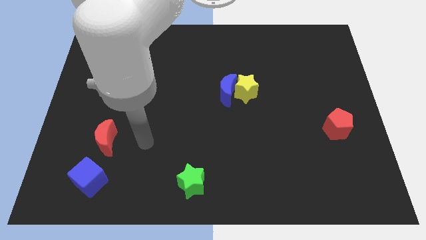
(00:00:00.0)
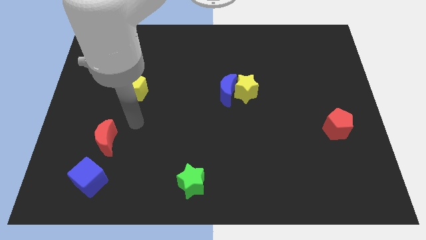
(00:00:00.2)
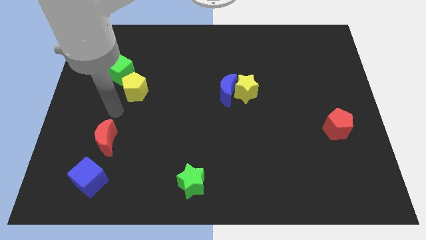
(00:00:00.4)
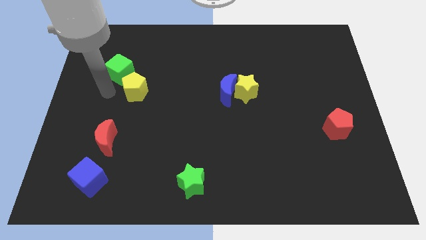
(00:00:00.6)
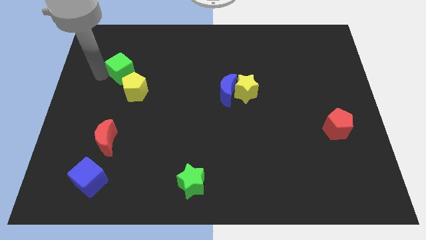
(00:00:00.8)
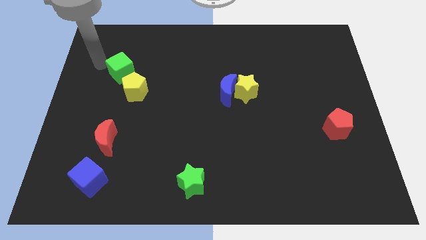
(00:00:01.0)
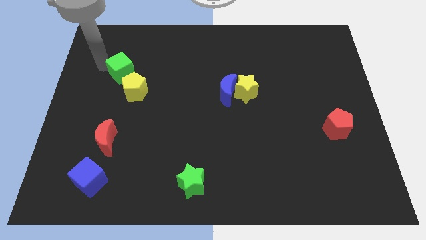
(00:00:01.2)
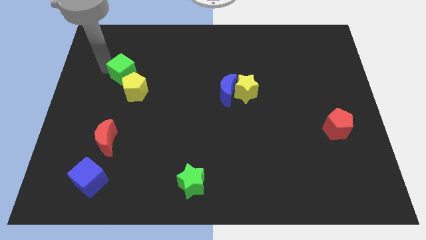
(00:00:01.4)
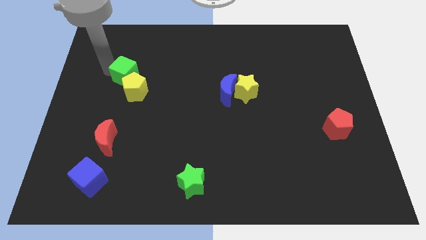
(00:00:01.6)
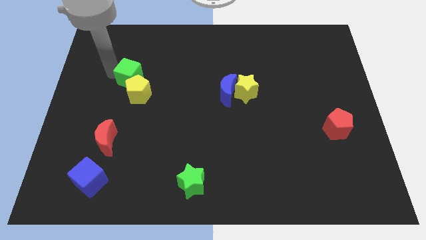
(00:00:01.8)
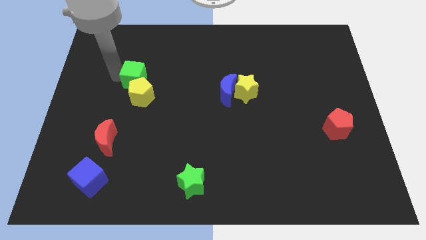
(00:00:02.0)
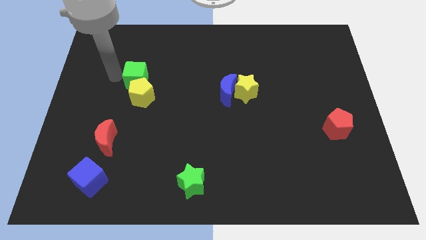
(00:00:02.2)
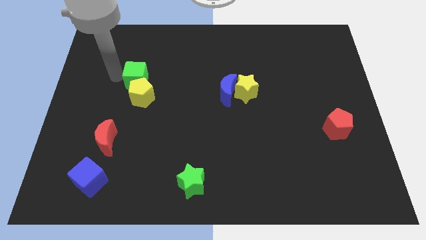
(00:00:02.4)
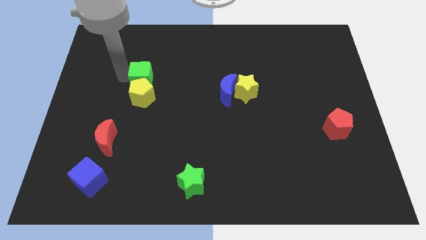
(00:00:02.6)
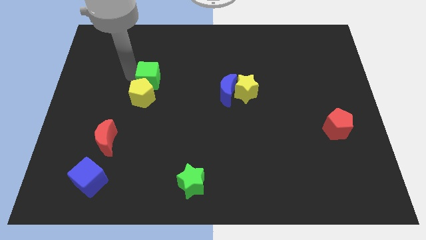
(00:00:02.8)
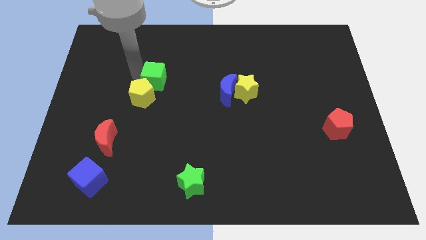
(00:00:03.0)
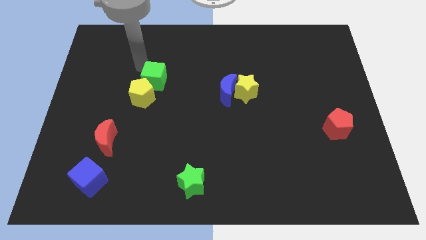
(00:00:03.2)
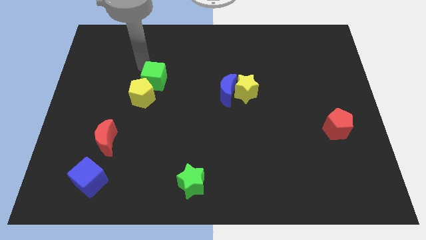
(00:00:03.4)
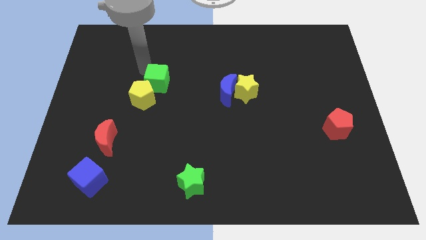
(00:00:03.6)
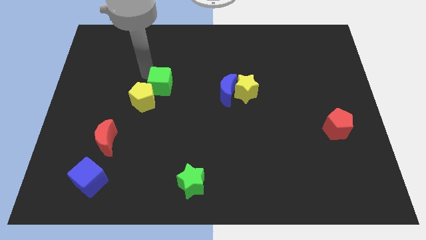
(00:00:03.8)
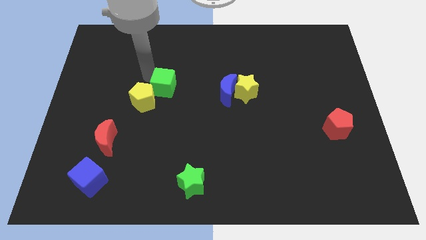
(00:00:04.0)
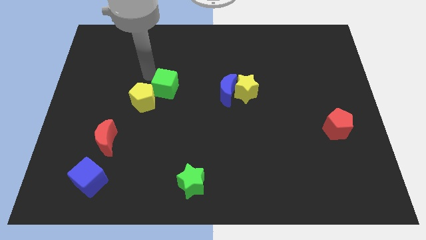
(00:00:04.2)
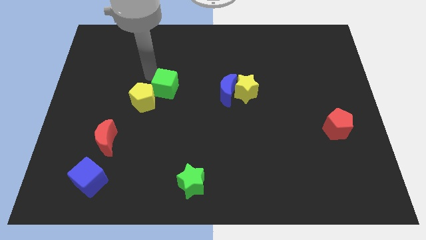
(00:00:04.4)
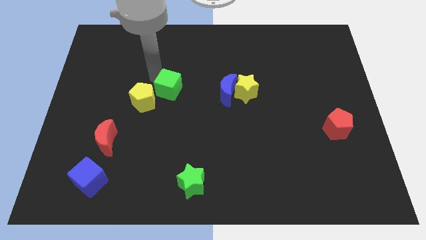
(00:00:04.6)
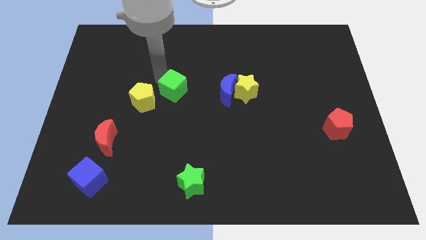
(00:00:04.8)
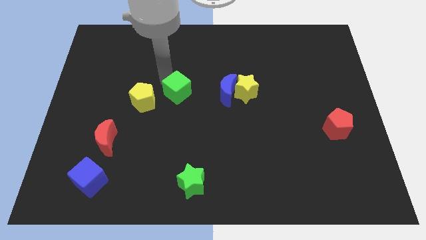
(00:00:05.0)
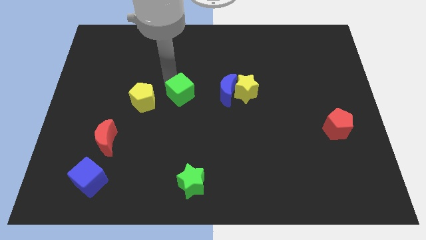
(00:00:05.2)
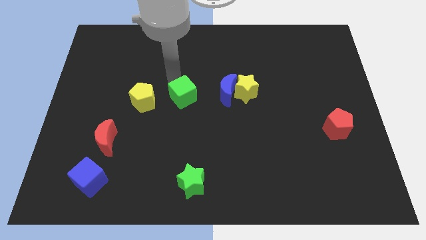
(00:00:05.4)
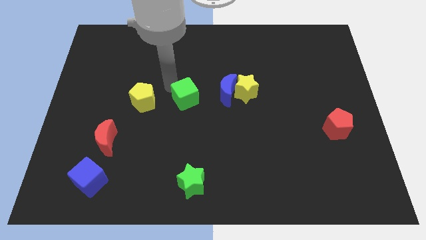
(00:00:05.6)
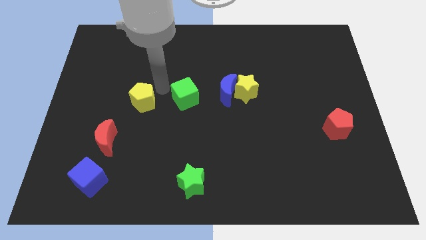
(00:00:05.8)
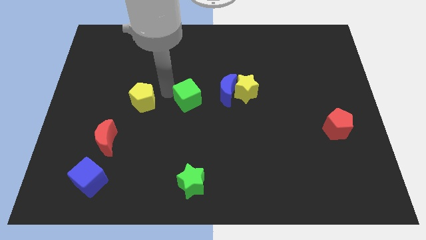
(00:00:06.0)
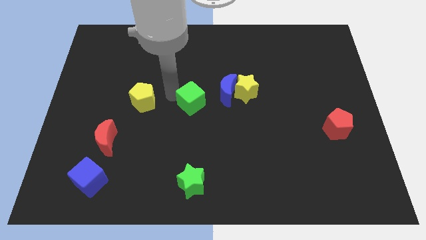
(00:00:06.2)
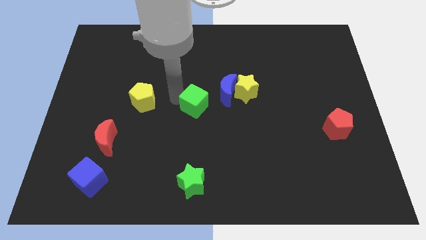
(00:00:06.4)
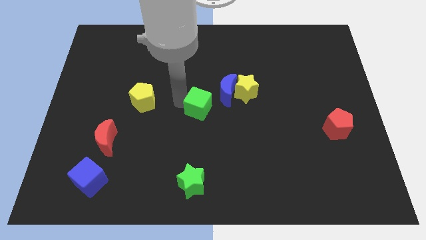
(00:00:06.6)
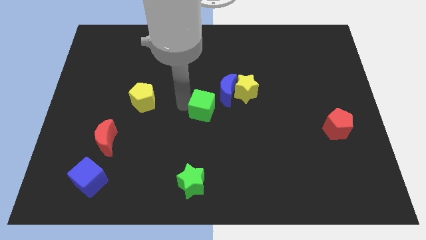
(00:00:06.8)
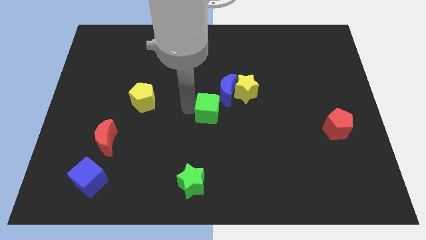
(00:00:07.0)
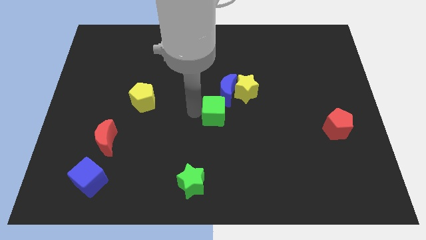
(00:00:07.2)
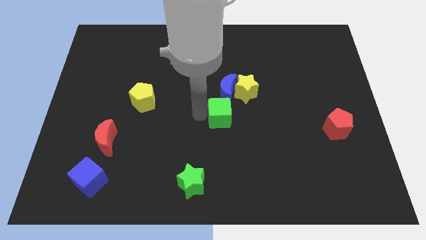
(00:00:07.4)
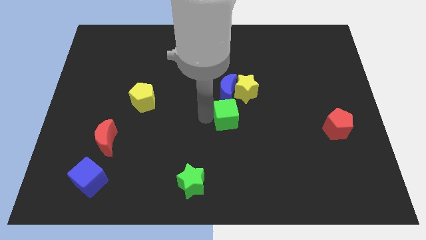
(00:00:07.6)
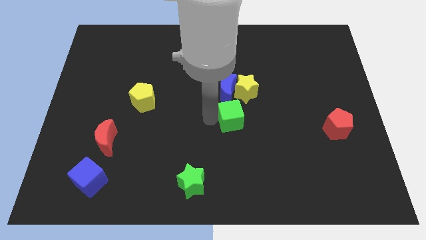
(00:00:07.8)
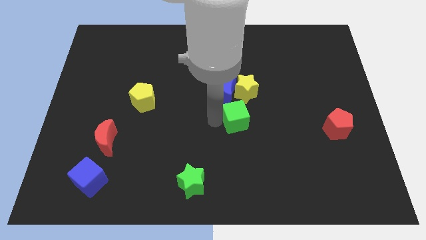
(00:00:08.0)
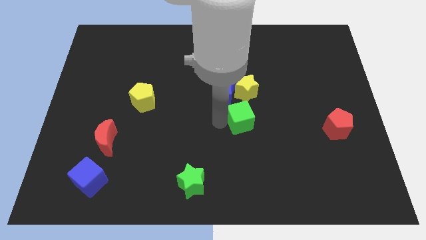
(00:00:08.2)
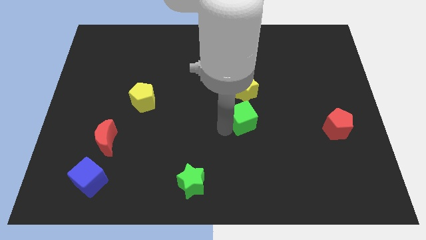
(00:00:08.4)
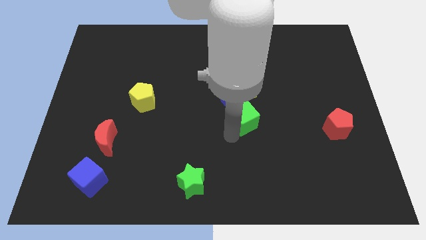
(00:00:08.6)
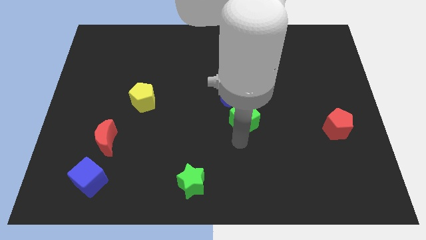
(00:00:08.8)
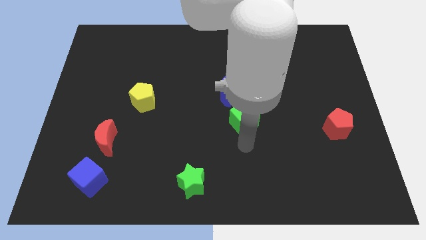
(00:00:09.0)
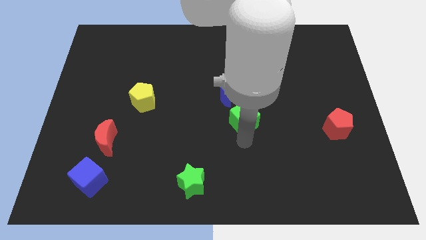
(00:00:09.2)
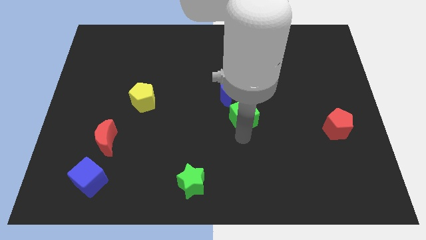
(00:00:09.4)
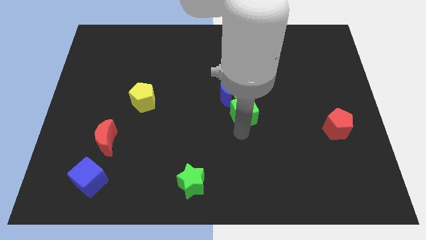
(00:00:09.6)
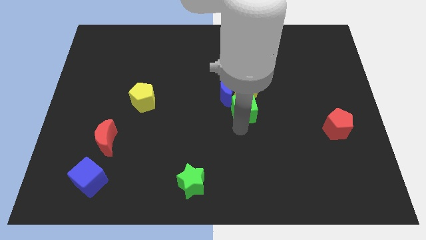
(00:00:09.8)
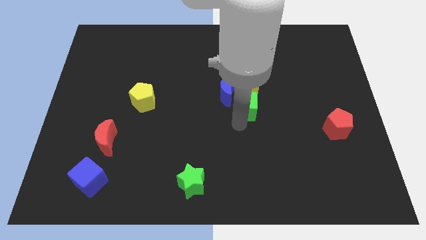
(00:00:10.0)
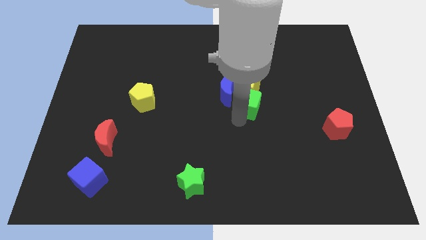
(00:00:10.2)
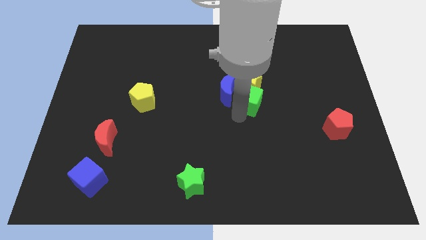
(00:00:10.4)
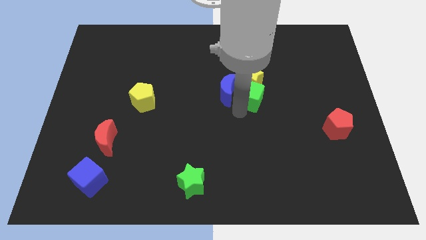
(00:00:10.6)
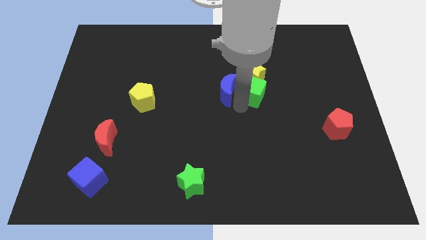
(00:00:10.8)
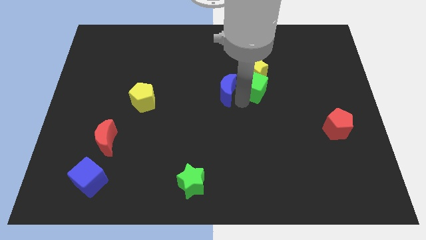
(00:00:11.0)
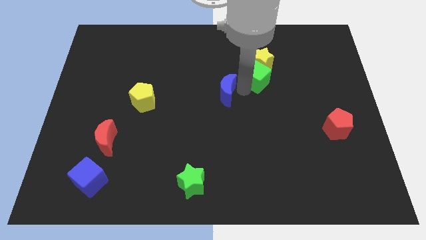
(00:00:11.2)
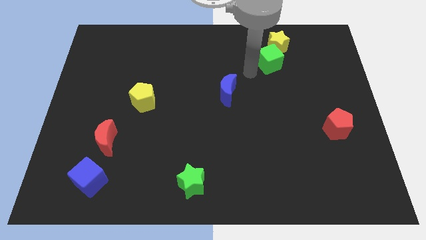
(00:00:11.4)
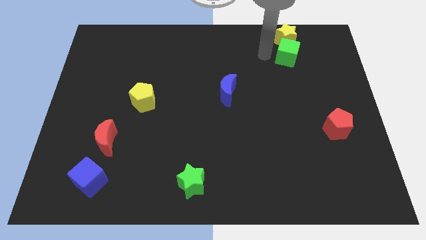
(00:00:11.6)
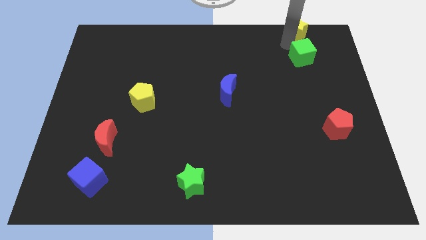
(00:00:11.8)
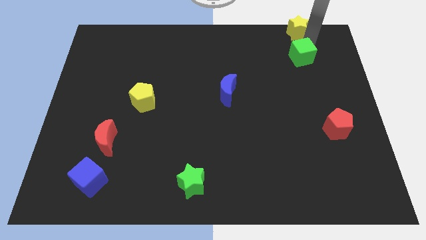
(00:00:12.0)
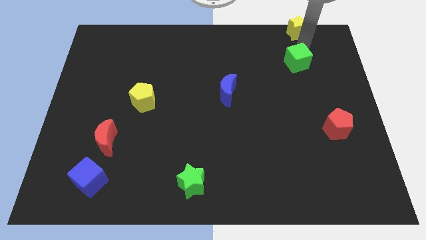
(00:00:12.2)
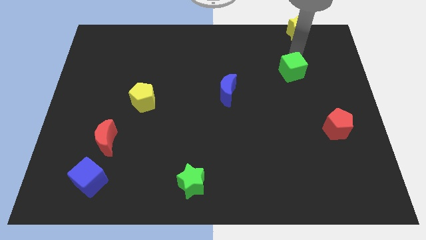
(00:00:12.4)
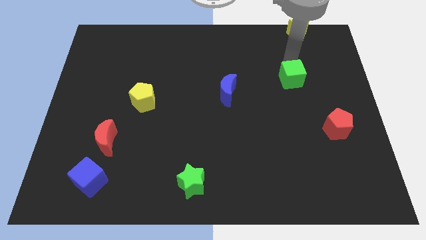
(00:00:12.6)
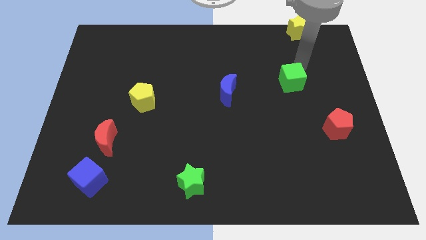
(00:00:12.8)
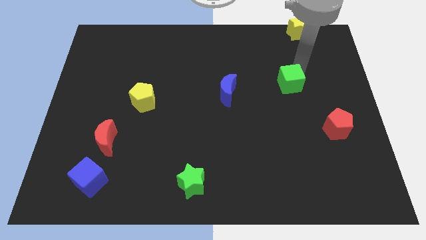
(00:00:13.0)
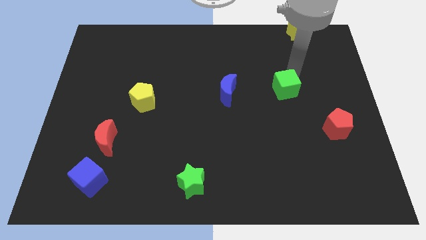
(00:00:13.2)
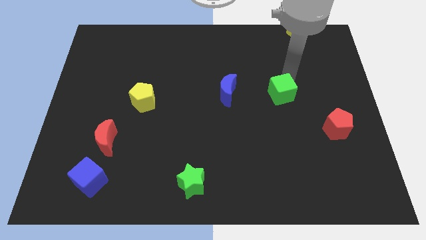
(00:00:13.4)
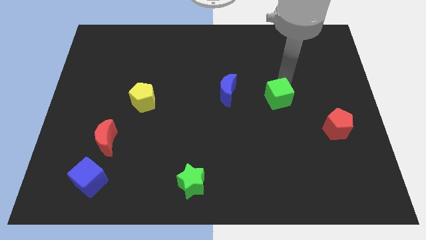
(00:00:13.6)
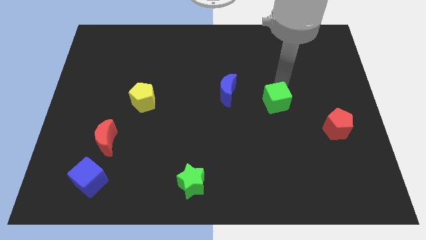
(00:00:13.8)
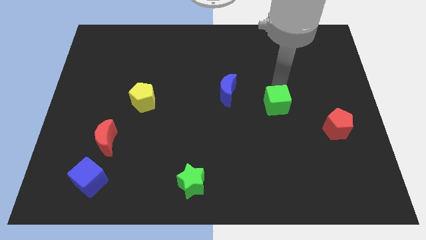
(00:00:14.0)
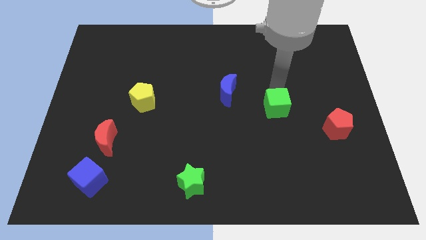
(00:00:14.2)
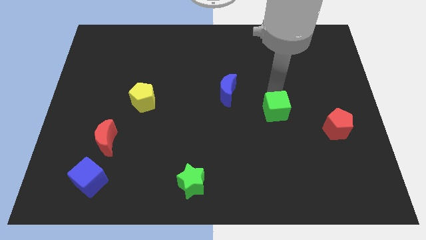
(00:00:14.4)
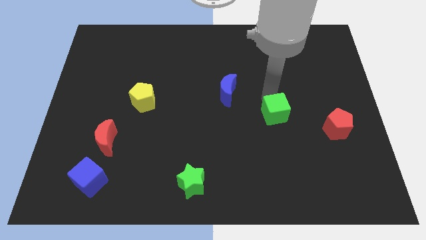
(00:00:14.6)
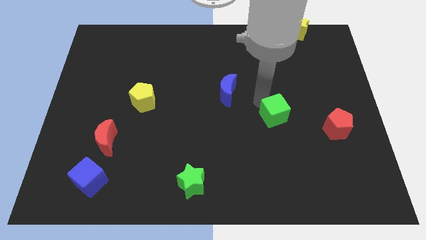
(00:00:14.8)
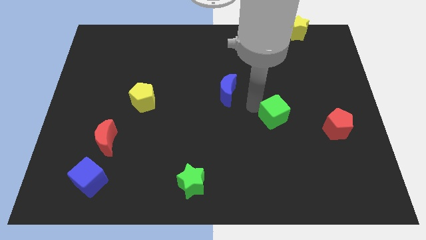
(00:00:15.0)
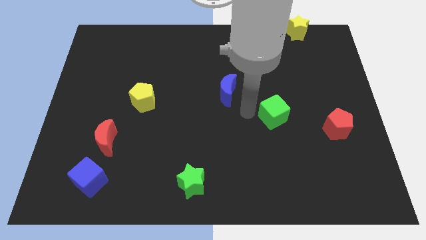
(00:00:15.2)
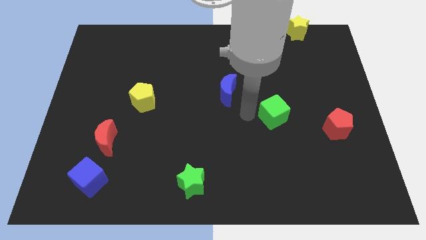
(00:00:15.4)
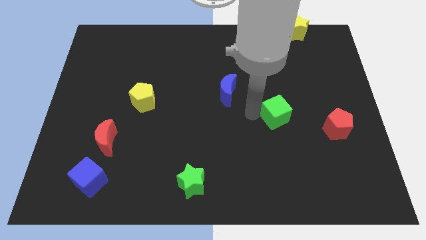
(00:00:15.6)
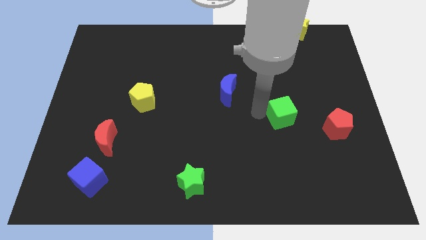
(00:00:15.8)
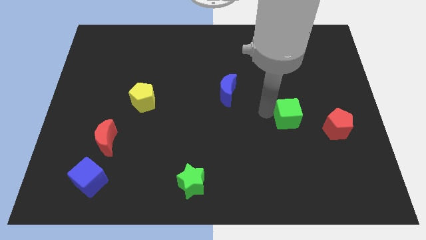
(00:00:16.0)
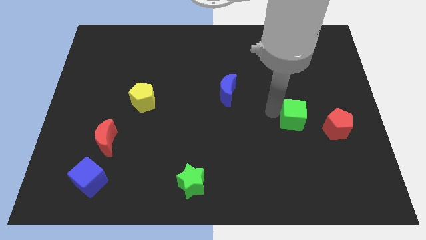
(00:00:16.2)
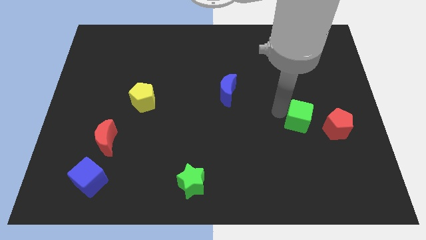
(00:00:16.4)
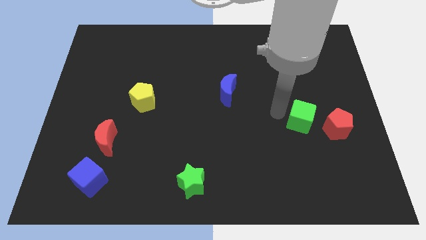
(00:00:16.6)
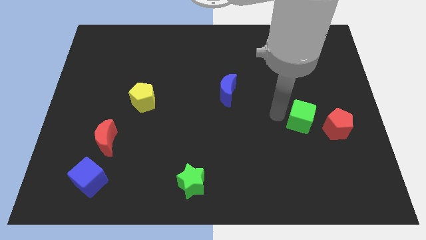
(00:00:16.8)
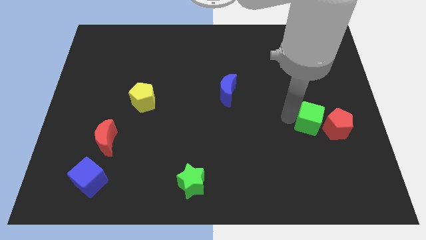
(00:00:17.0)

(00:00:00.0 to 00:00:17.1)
slide the green cube to the red pentagon
